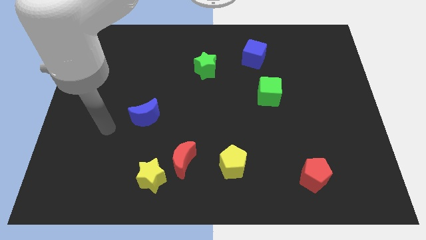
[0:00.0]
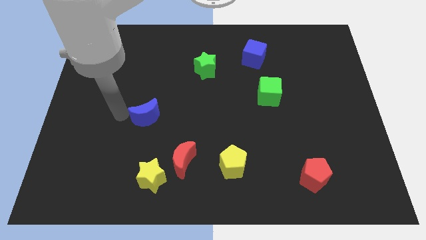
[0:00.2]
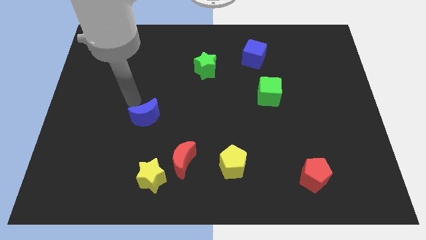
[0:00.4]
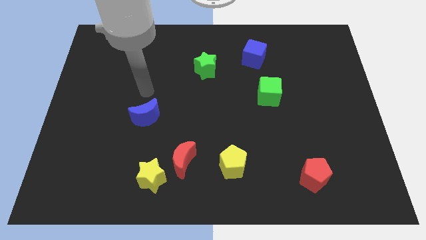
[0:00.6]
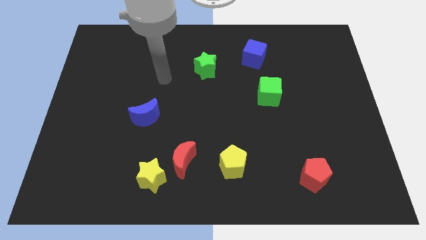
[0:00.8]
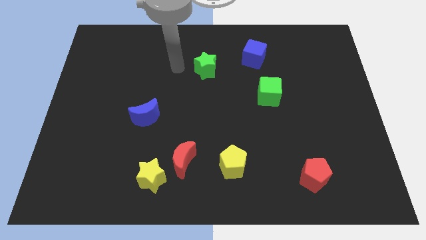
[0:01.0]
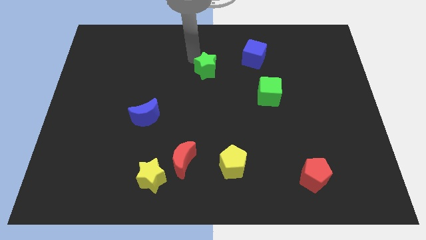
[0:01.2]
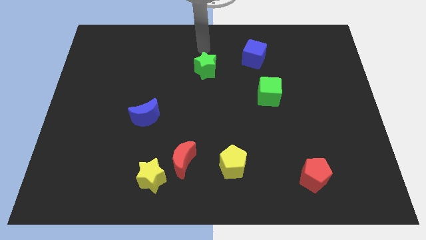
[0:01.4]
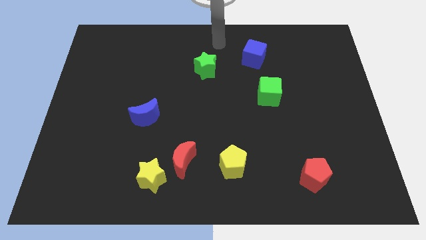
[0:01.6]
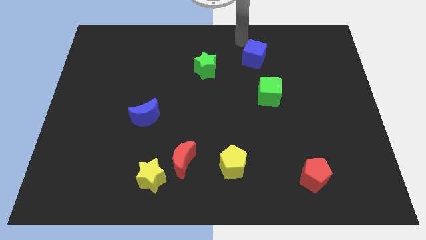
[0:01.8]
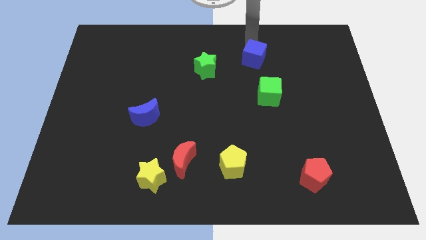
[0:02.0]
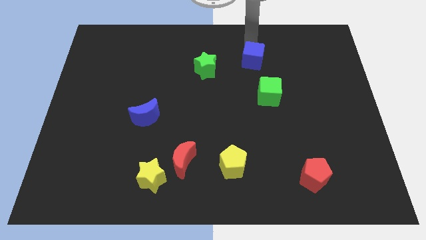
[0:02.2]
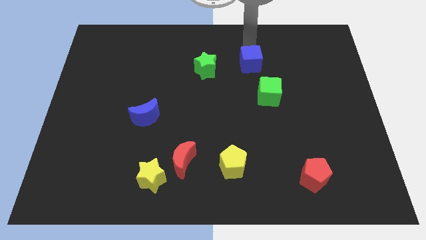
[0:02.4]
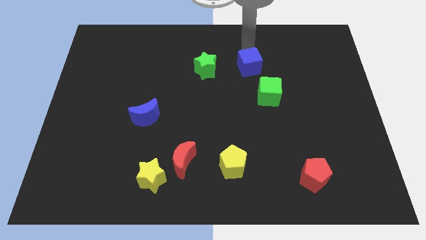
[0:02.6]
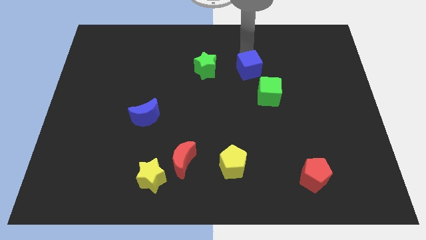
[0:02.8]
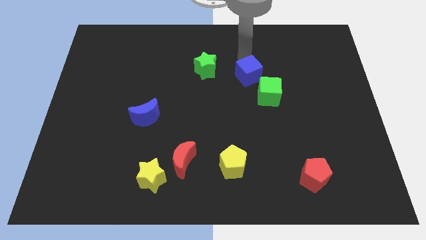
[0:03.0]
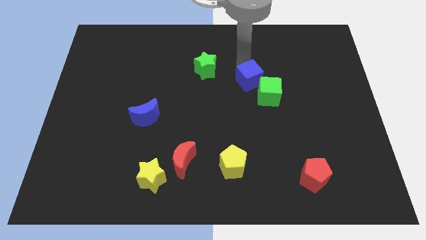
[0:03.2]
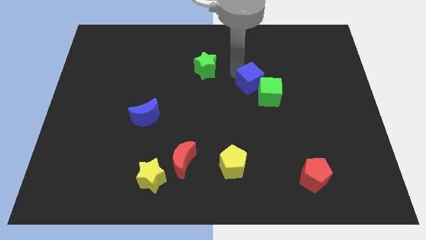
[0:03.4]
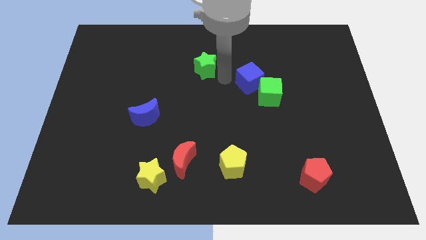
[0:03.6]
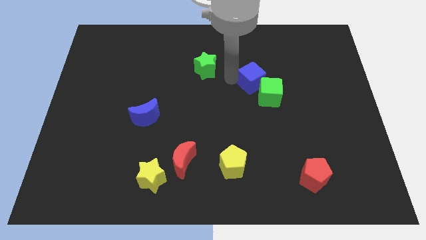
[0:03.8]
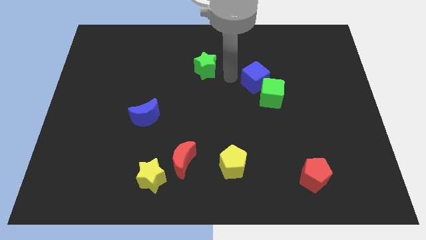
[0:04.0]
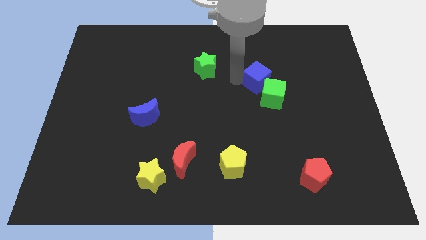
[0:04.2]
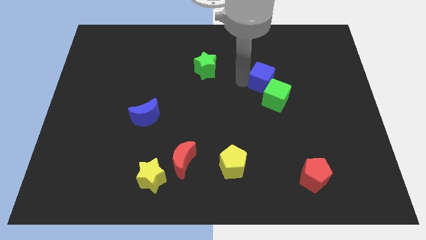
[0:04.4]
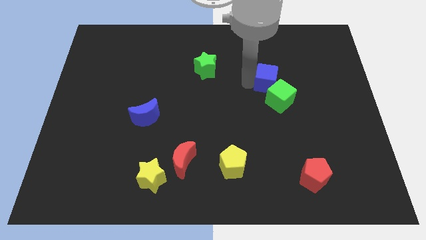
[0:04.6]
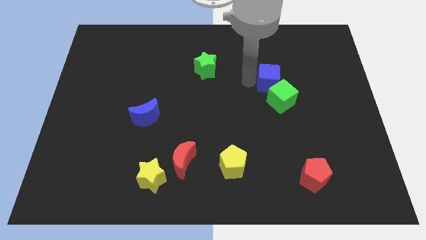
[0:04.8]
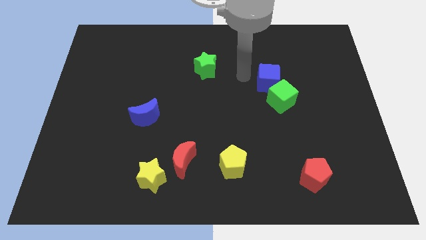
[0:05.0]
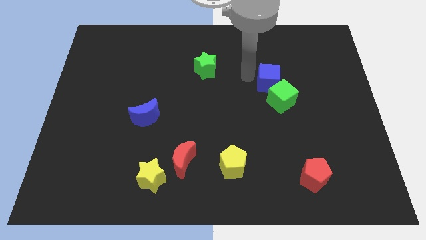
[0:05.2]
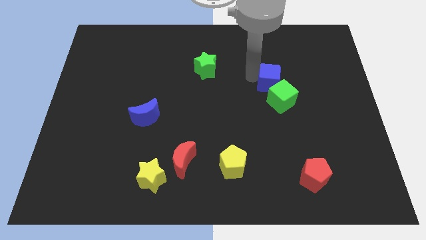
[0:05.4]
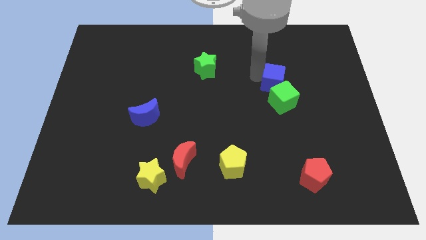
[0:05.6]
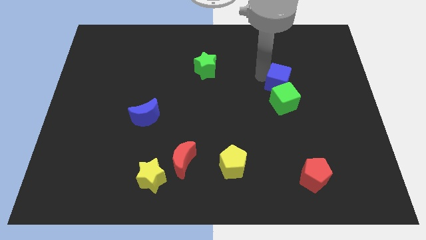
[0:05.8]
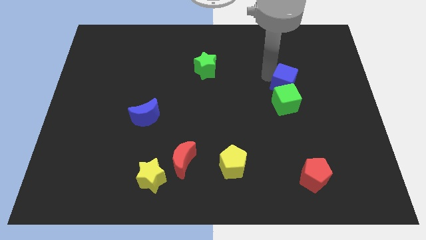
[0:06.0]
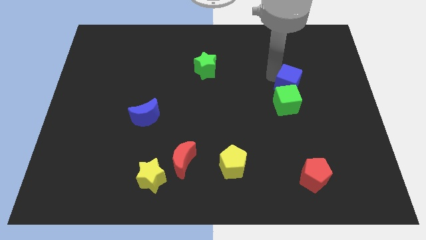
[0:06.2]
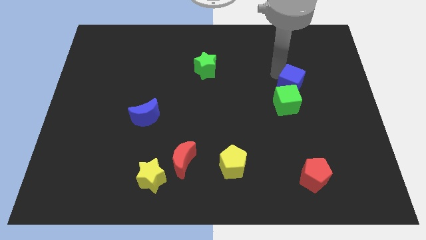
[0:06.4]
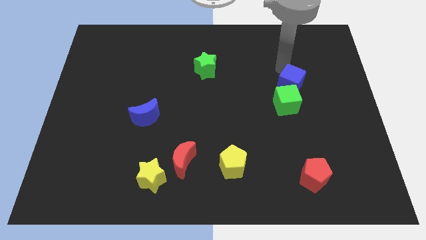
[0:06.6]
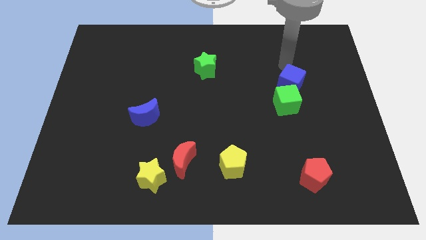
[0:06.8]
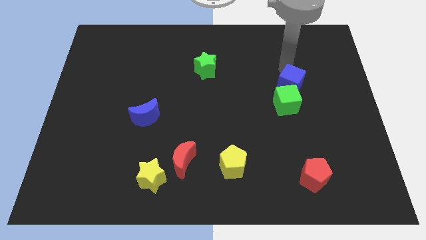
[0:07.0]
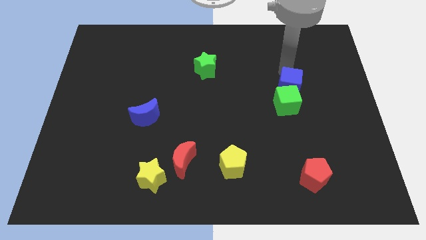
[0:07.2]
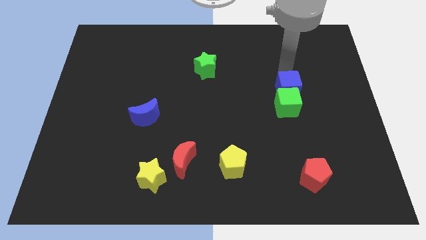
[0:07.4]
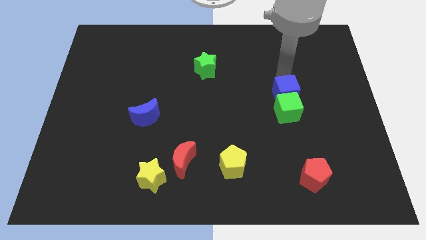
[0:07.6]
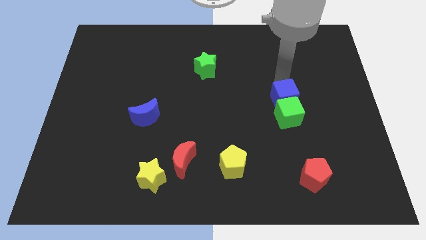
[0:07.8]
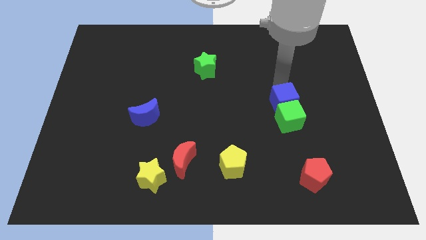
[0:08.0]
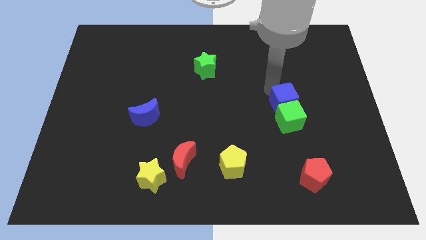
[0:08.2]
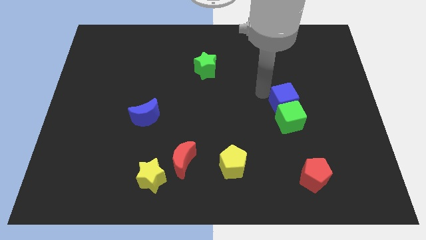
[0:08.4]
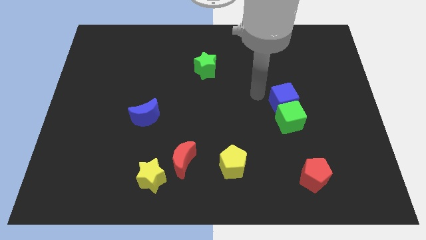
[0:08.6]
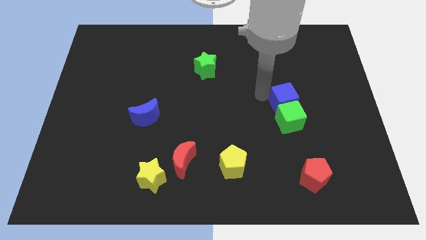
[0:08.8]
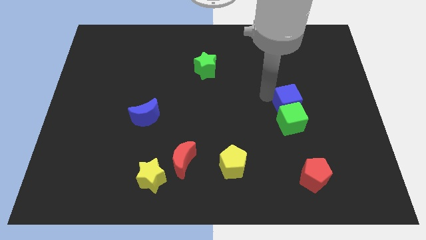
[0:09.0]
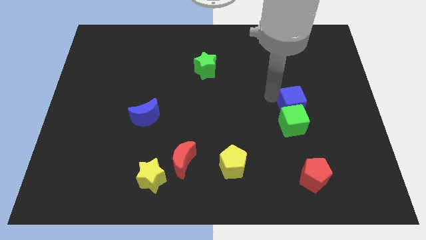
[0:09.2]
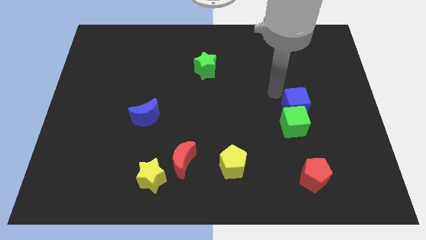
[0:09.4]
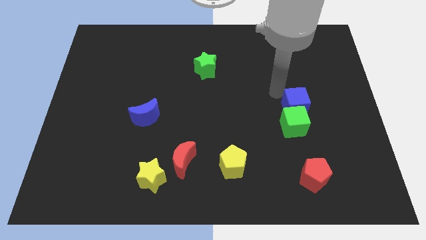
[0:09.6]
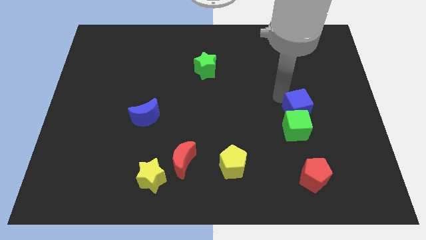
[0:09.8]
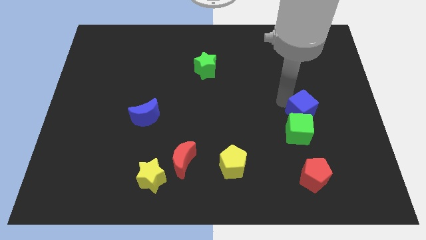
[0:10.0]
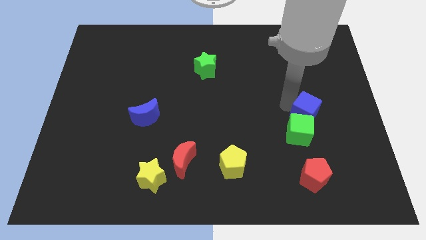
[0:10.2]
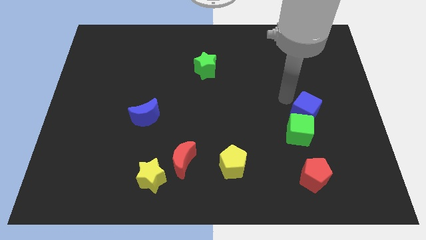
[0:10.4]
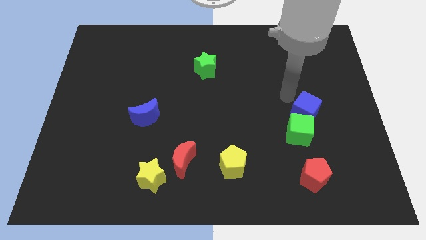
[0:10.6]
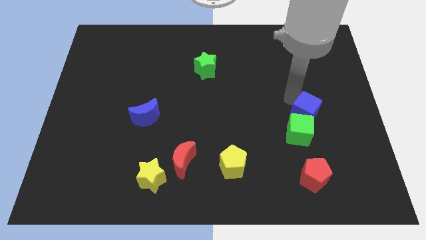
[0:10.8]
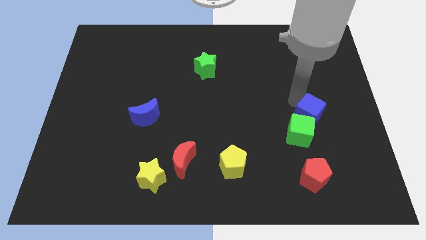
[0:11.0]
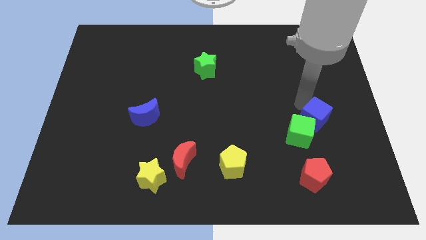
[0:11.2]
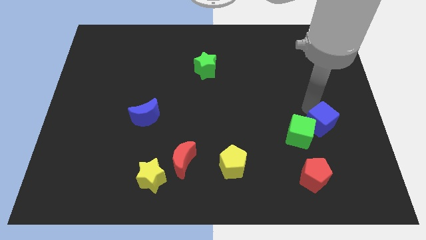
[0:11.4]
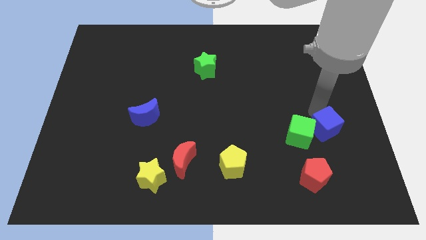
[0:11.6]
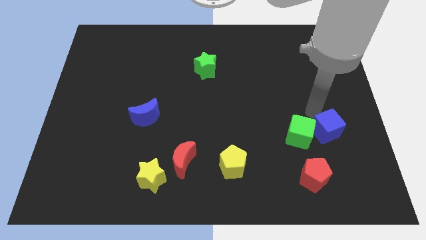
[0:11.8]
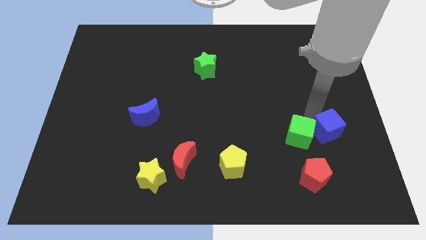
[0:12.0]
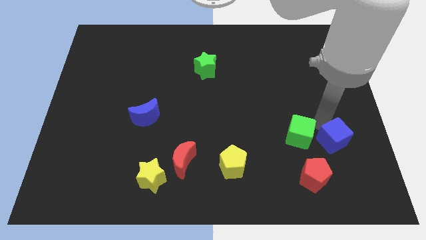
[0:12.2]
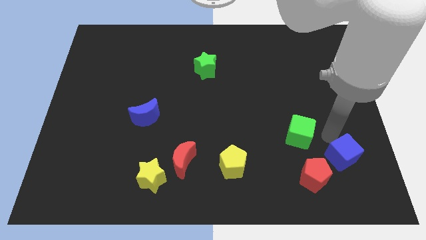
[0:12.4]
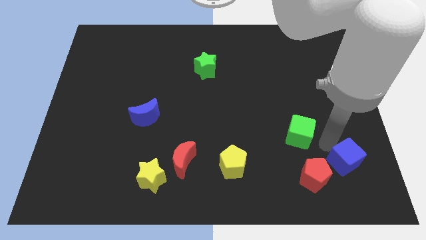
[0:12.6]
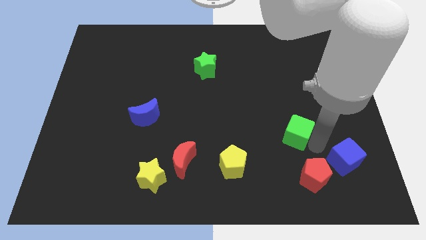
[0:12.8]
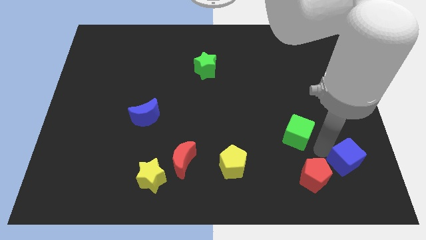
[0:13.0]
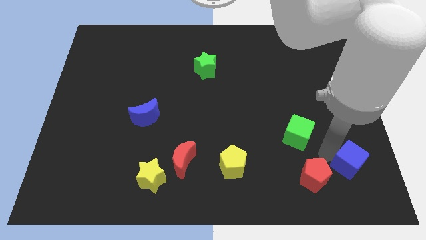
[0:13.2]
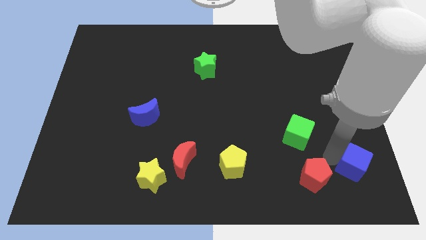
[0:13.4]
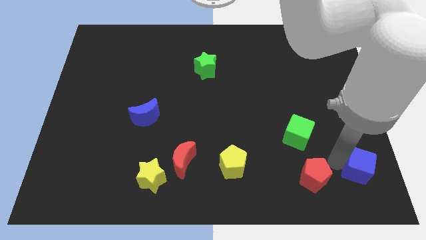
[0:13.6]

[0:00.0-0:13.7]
put the blue cube to the lower right corner

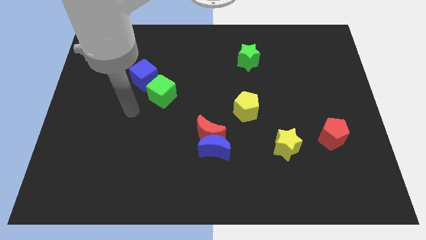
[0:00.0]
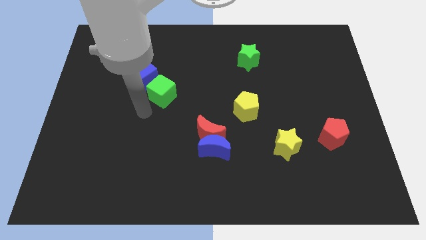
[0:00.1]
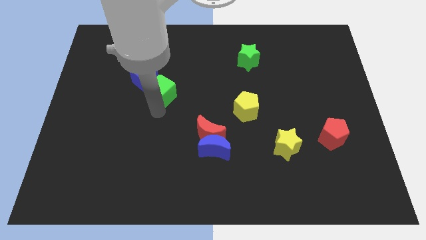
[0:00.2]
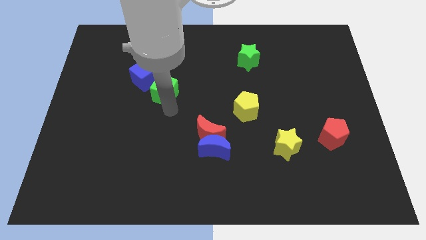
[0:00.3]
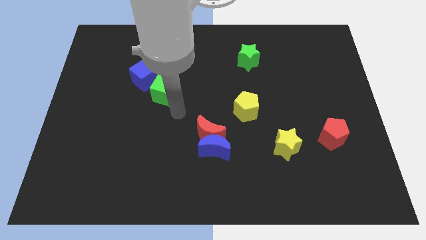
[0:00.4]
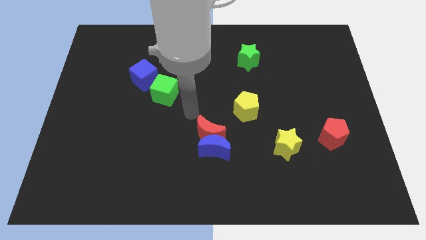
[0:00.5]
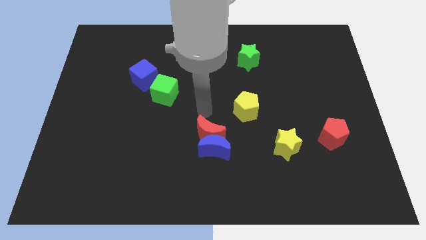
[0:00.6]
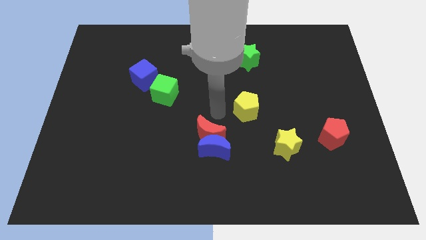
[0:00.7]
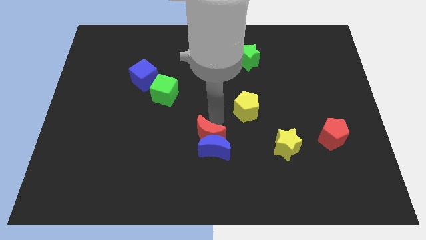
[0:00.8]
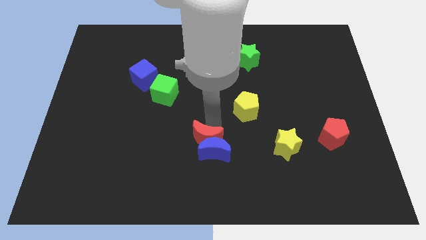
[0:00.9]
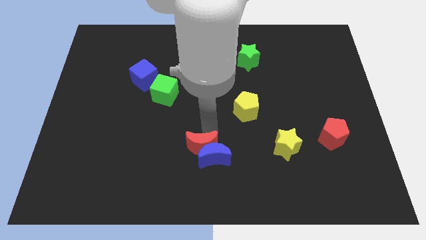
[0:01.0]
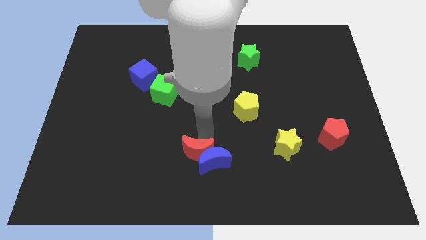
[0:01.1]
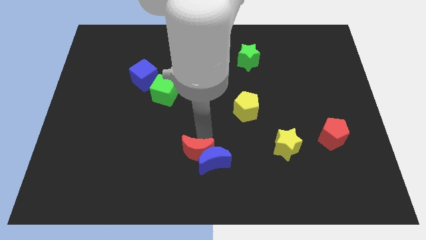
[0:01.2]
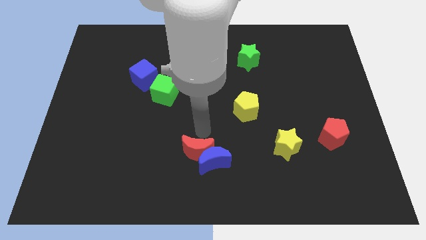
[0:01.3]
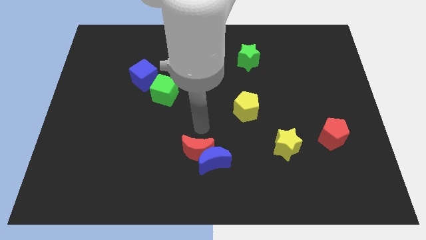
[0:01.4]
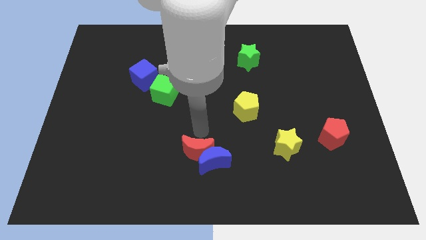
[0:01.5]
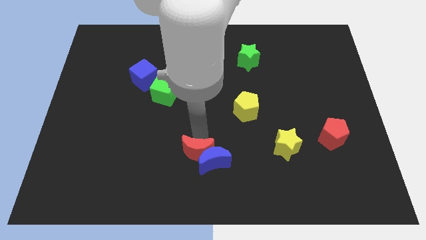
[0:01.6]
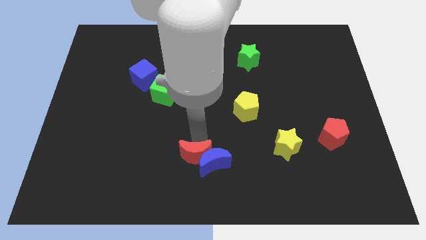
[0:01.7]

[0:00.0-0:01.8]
slide the red moon to the bottom
